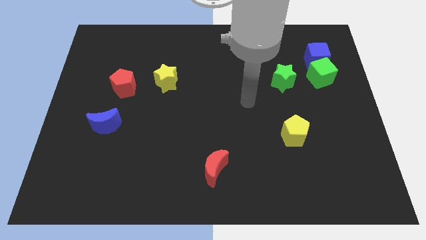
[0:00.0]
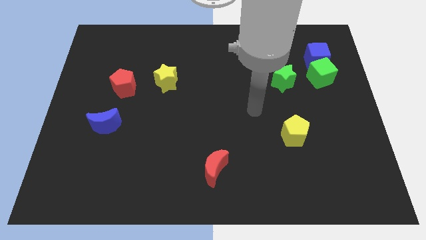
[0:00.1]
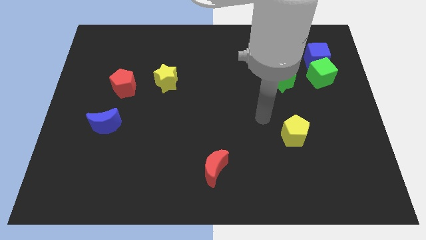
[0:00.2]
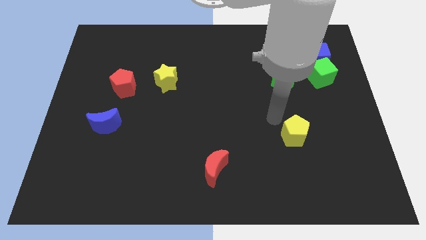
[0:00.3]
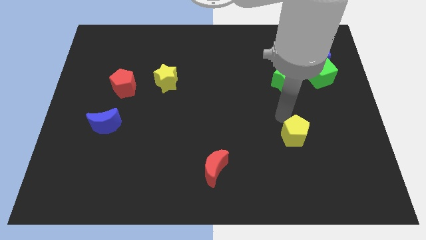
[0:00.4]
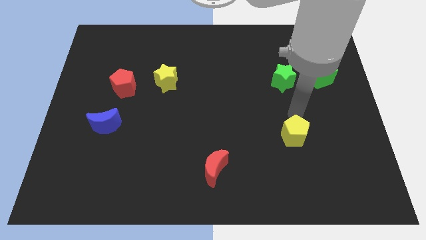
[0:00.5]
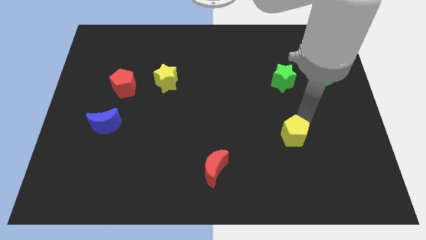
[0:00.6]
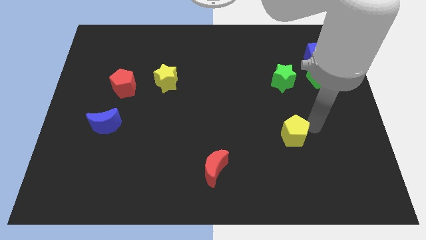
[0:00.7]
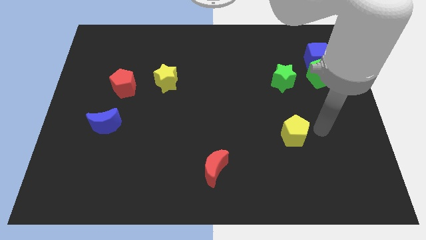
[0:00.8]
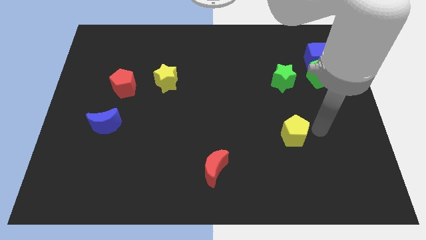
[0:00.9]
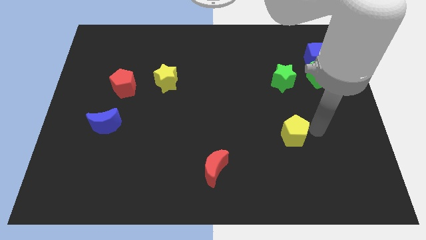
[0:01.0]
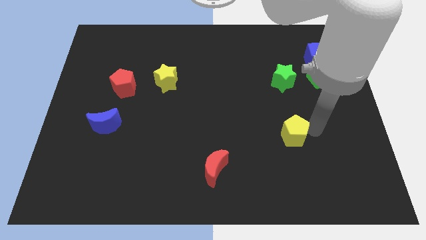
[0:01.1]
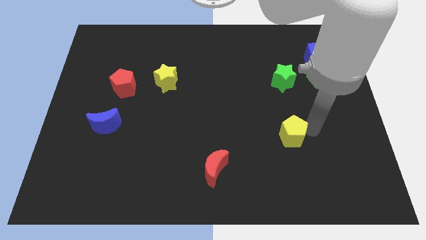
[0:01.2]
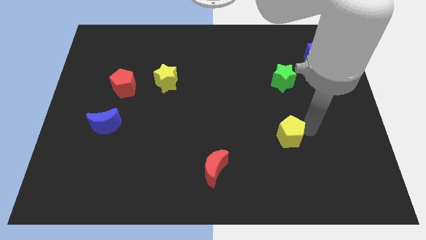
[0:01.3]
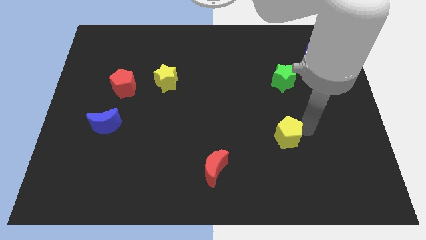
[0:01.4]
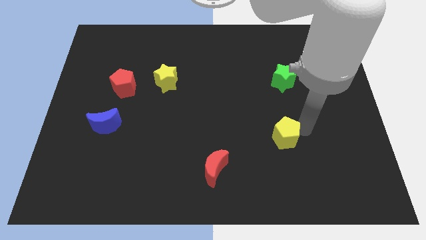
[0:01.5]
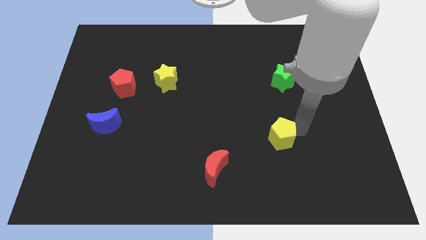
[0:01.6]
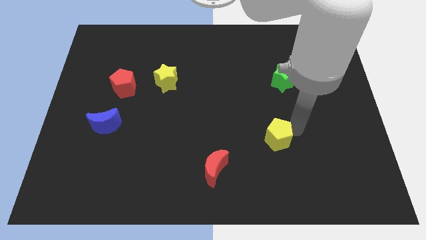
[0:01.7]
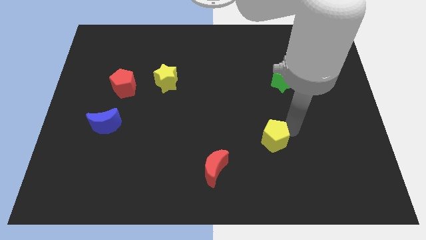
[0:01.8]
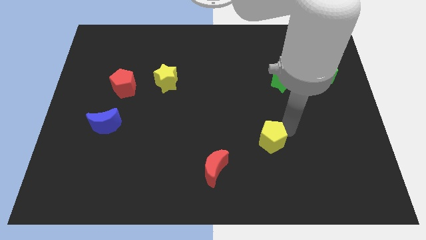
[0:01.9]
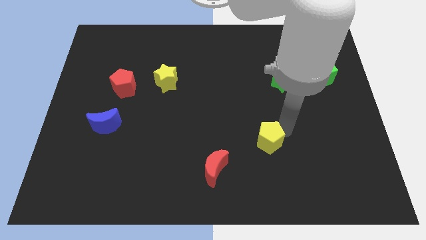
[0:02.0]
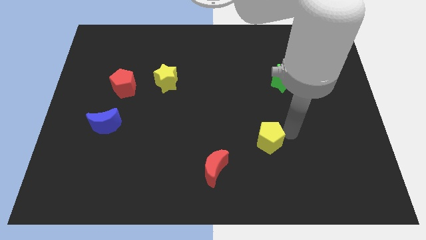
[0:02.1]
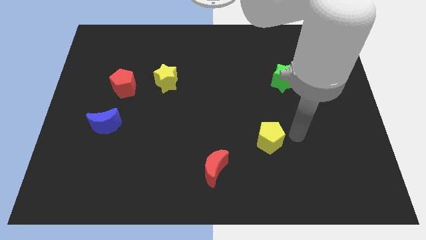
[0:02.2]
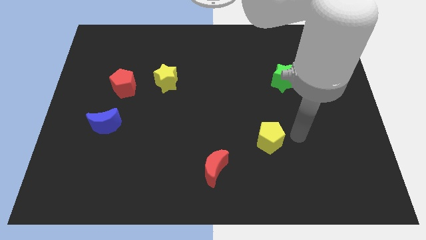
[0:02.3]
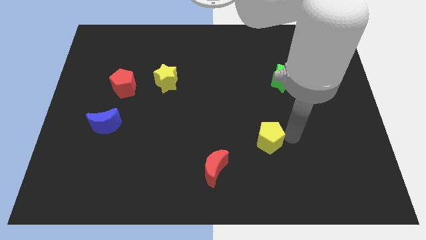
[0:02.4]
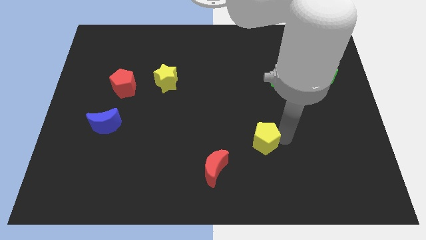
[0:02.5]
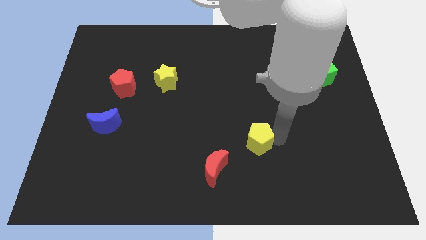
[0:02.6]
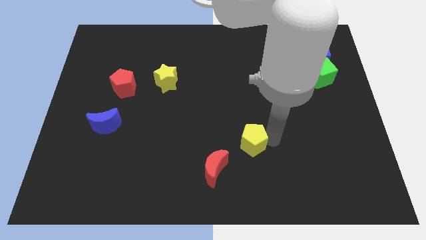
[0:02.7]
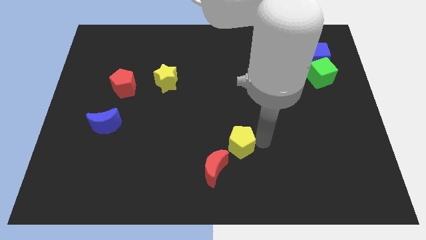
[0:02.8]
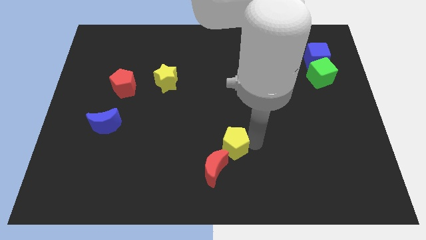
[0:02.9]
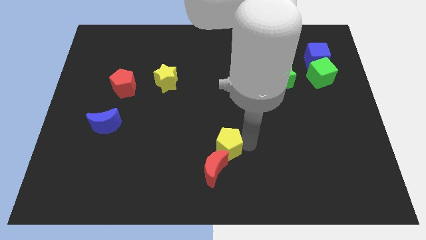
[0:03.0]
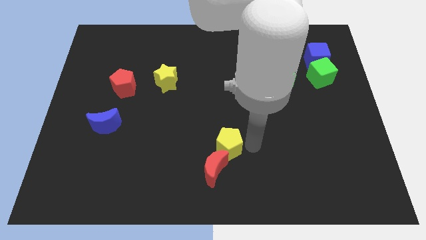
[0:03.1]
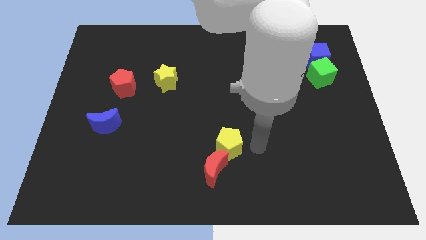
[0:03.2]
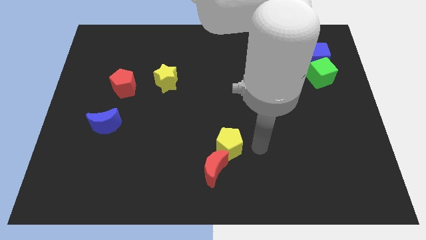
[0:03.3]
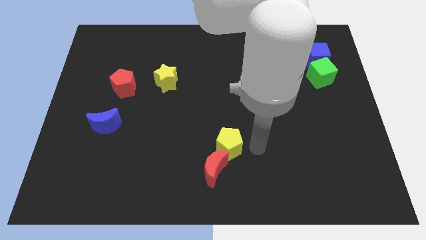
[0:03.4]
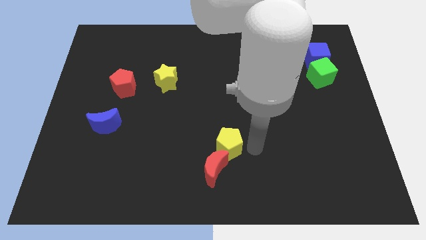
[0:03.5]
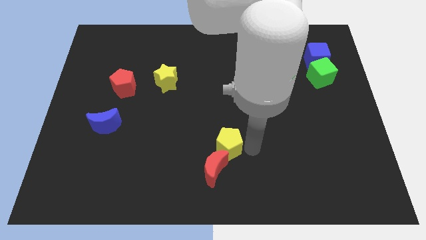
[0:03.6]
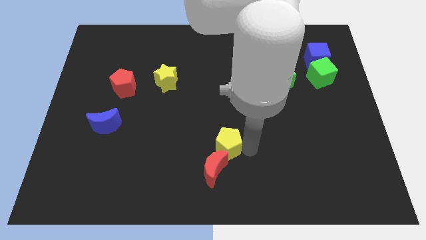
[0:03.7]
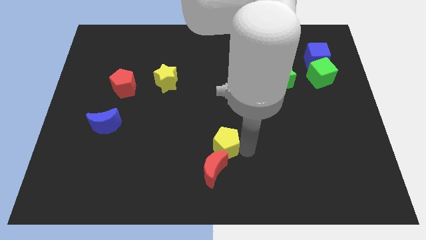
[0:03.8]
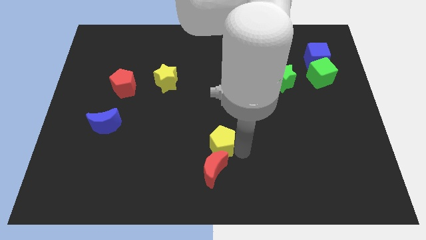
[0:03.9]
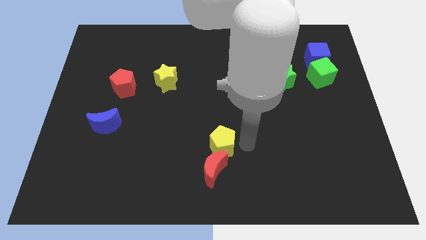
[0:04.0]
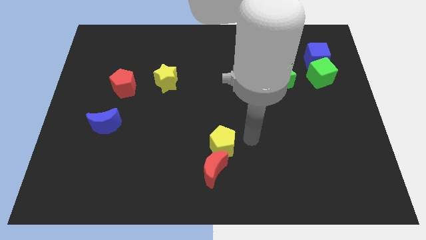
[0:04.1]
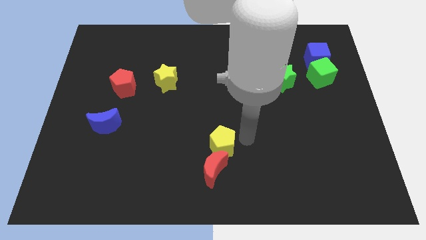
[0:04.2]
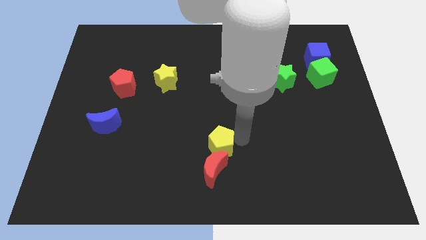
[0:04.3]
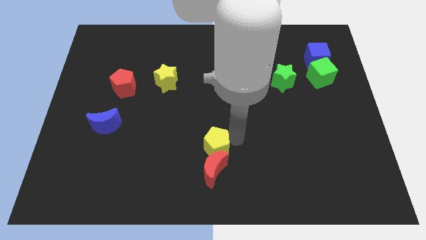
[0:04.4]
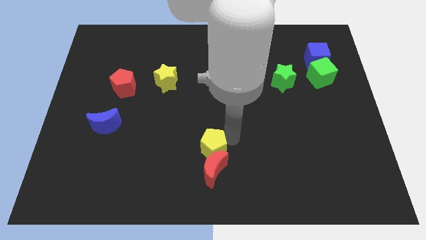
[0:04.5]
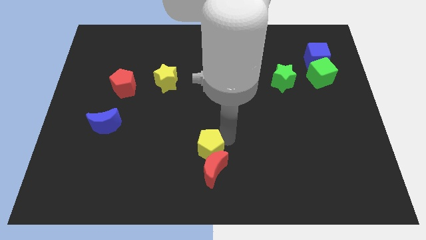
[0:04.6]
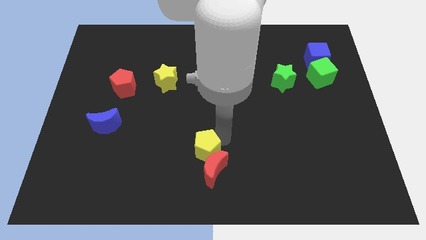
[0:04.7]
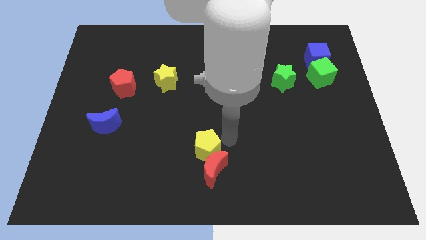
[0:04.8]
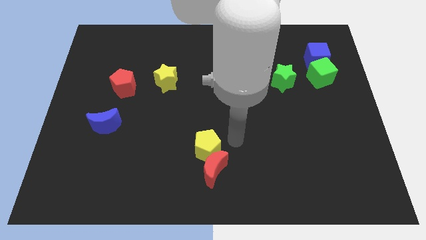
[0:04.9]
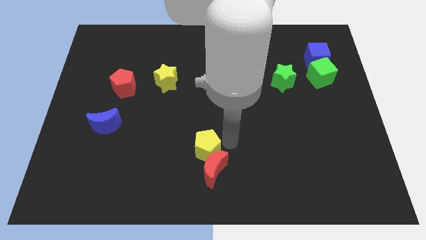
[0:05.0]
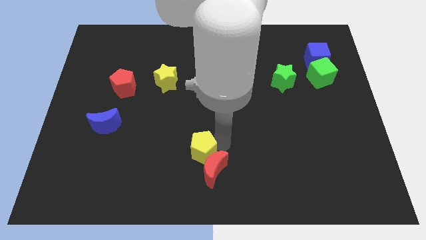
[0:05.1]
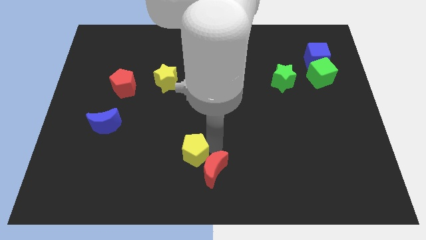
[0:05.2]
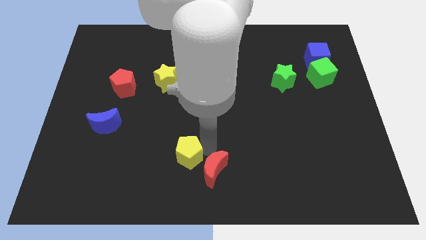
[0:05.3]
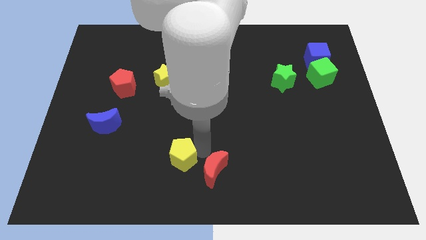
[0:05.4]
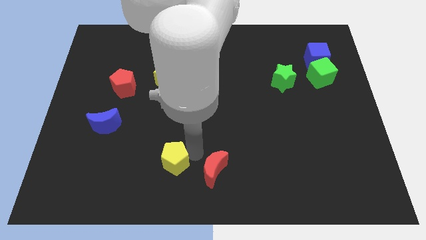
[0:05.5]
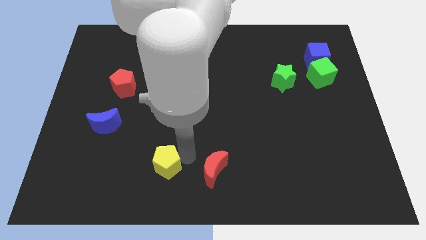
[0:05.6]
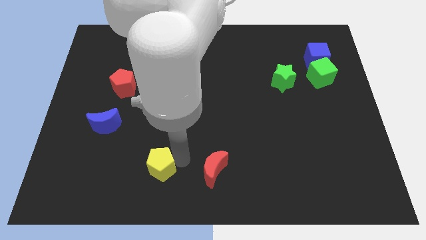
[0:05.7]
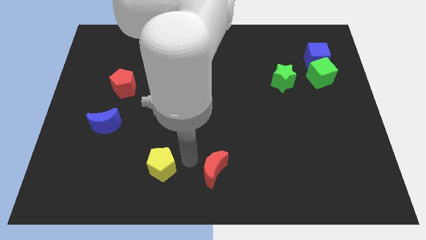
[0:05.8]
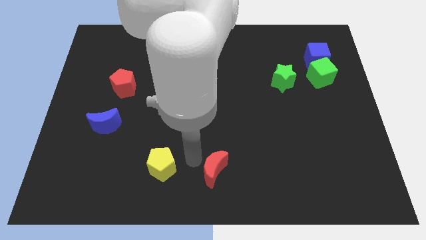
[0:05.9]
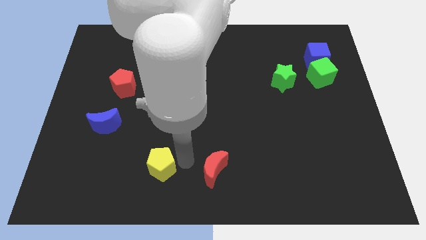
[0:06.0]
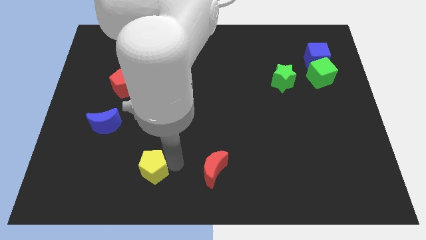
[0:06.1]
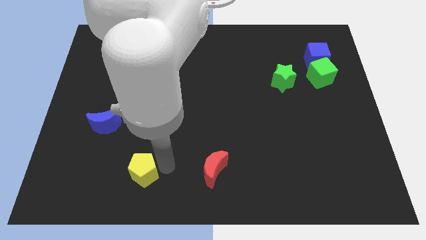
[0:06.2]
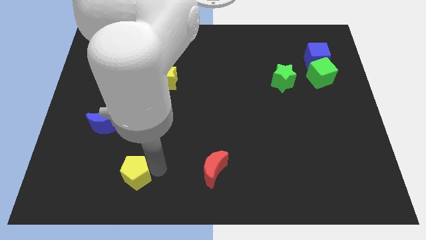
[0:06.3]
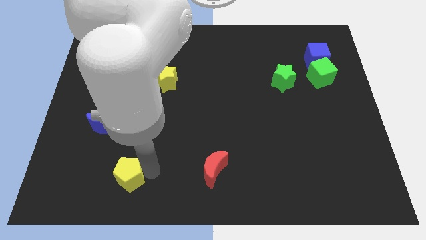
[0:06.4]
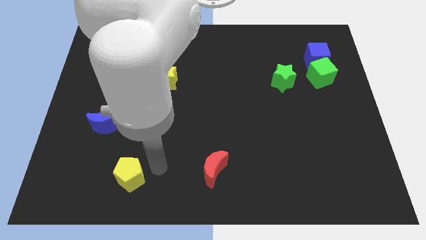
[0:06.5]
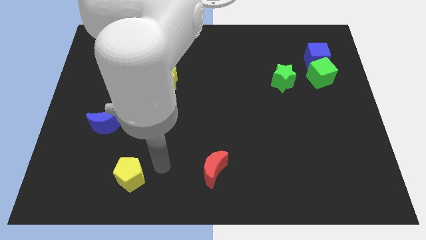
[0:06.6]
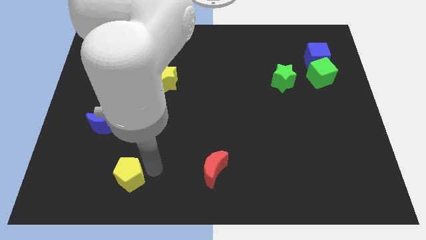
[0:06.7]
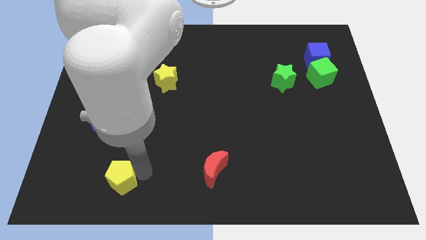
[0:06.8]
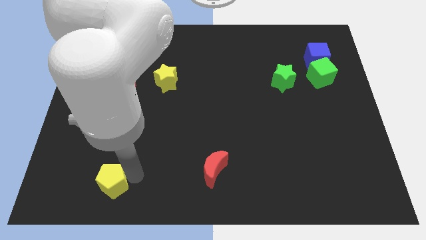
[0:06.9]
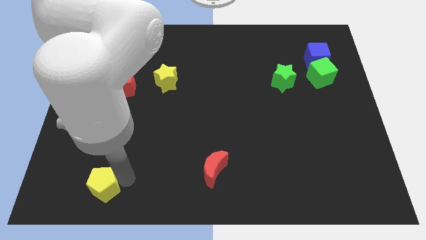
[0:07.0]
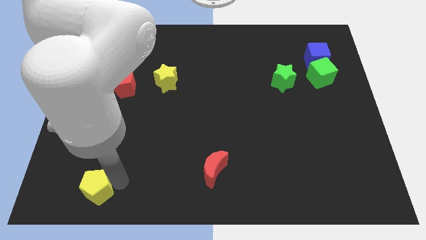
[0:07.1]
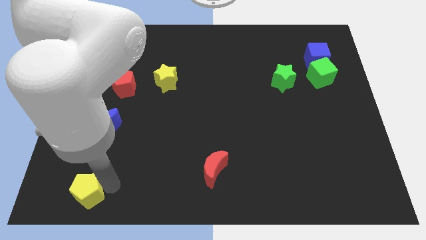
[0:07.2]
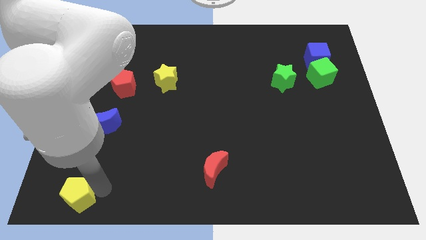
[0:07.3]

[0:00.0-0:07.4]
put the yellow pentagon to the bottom left of the board
